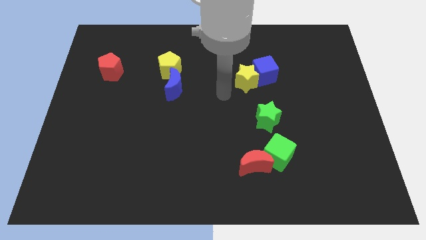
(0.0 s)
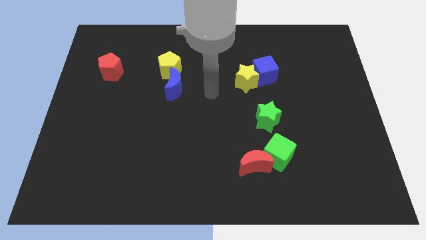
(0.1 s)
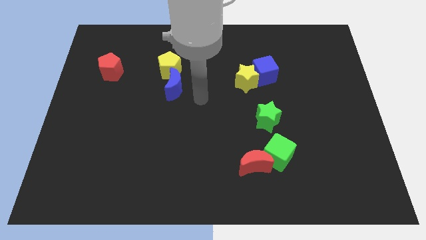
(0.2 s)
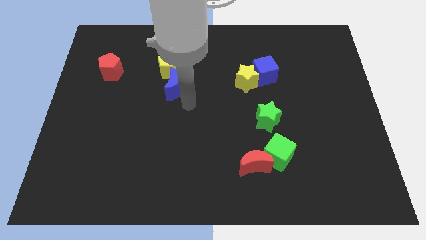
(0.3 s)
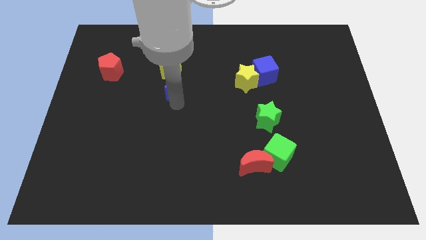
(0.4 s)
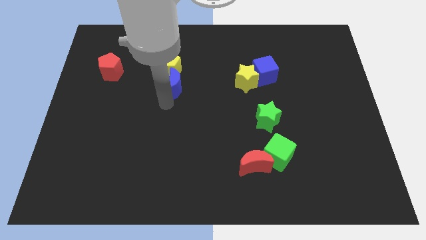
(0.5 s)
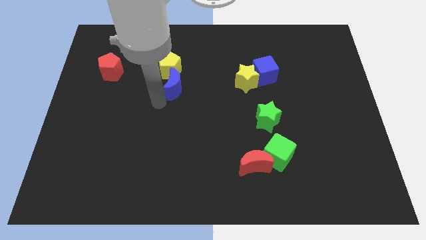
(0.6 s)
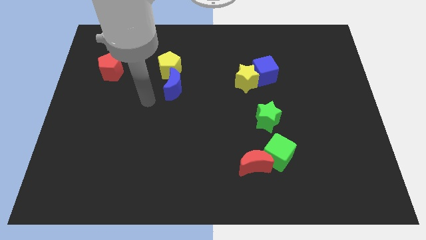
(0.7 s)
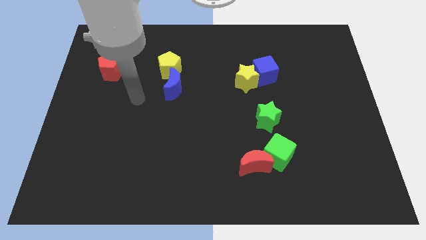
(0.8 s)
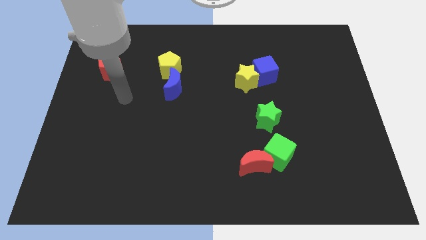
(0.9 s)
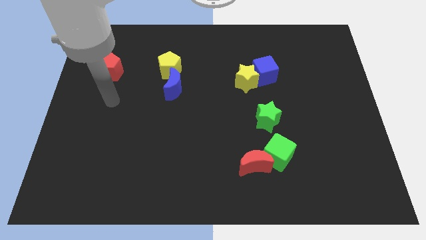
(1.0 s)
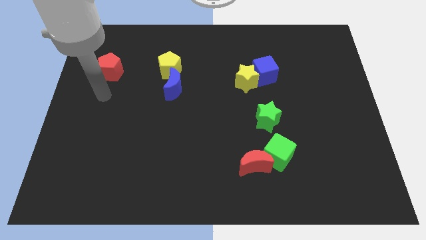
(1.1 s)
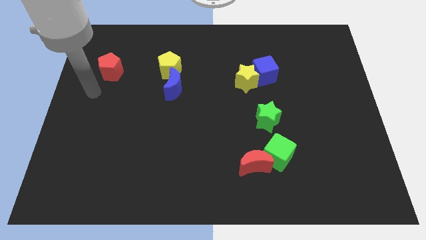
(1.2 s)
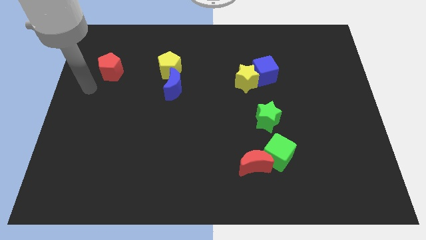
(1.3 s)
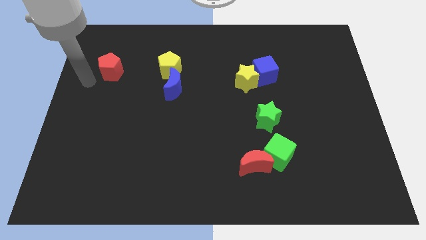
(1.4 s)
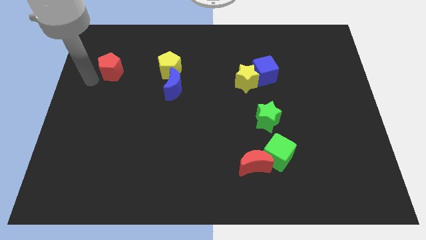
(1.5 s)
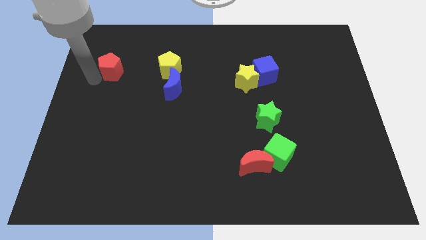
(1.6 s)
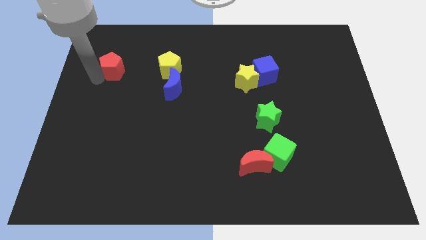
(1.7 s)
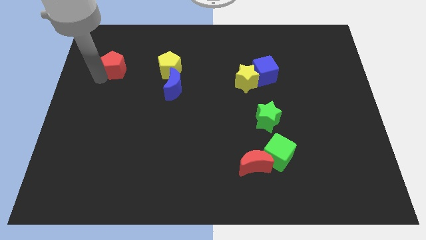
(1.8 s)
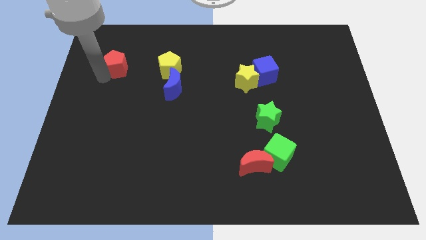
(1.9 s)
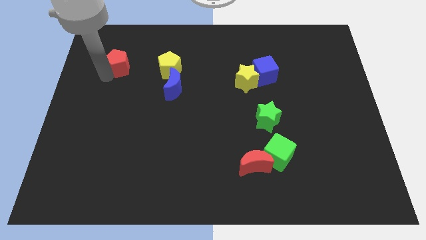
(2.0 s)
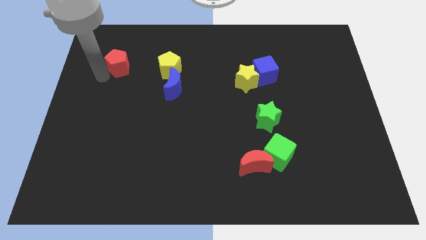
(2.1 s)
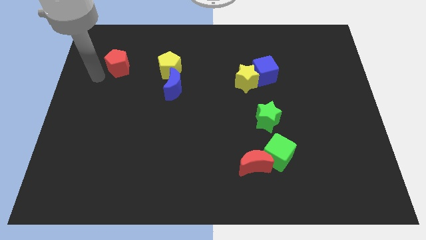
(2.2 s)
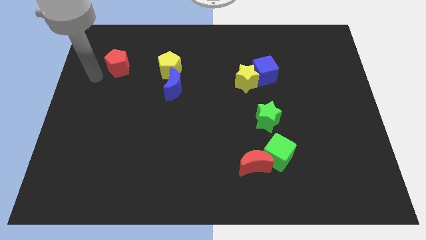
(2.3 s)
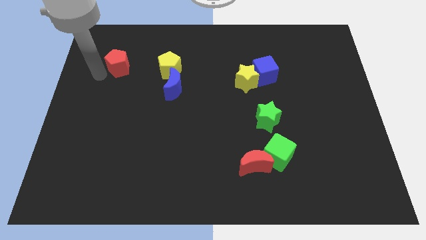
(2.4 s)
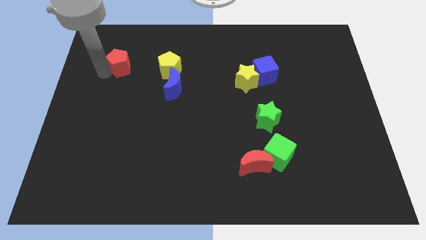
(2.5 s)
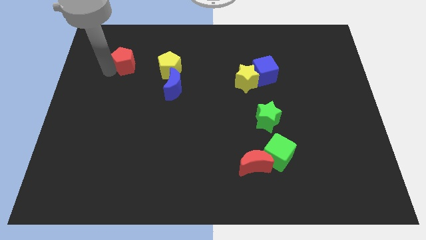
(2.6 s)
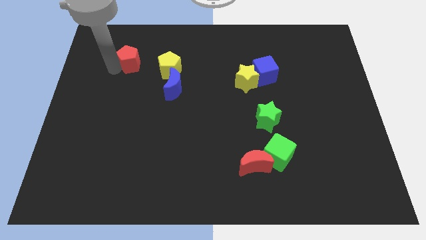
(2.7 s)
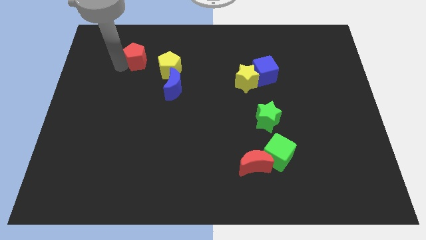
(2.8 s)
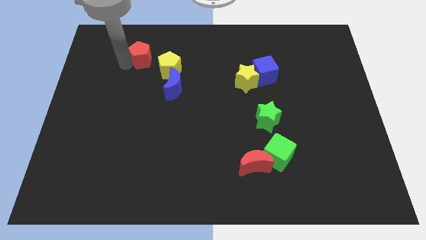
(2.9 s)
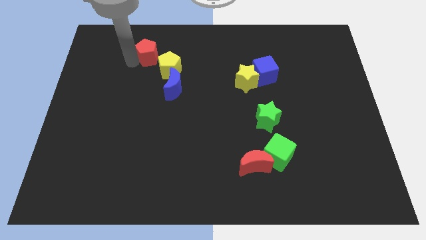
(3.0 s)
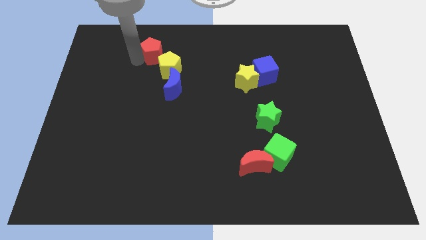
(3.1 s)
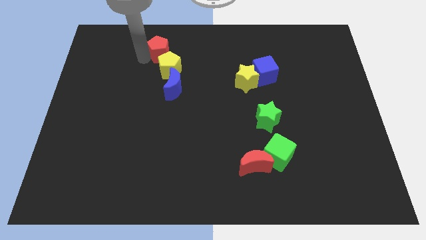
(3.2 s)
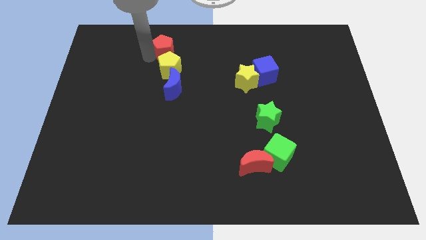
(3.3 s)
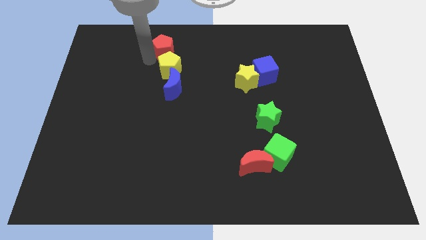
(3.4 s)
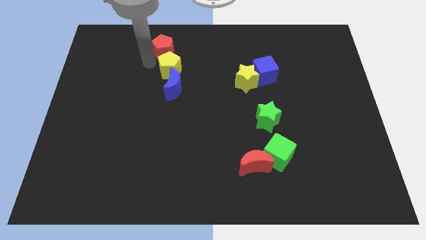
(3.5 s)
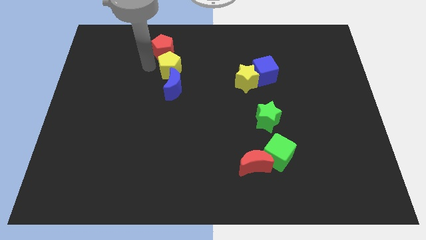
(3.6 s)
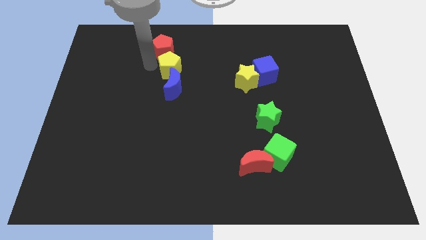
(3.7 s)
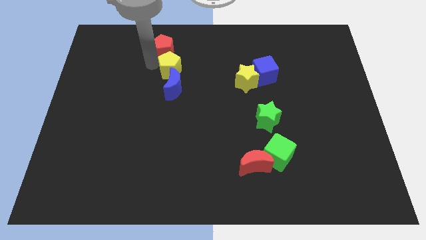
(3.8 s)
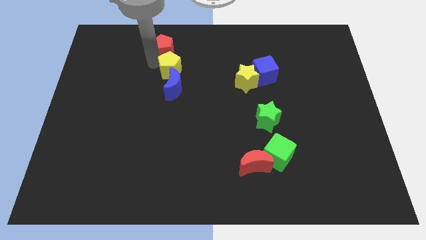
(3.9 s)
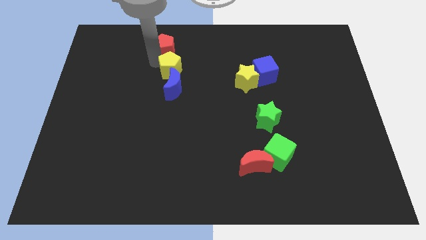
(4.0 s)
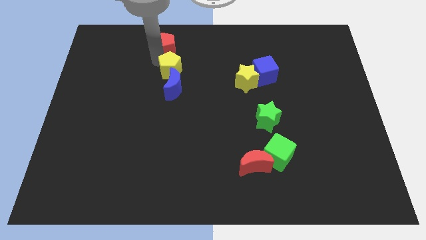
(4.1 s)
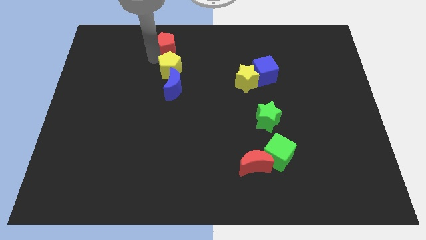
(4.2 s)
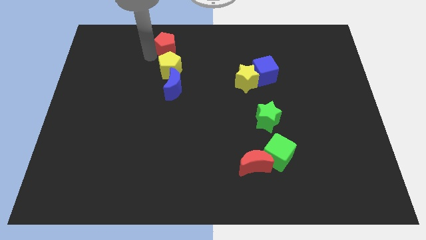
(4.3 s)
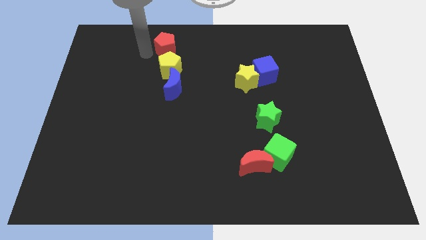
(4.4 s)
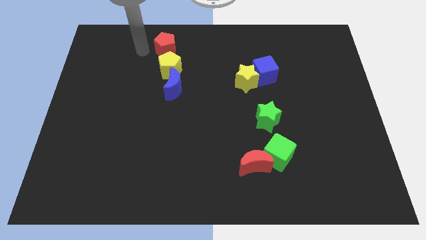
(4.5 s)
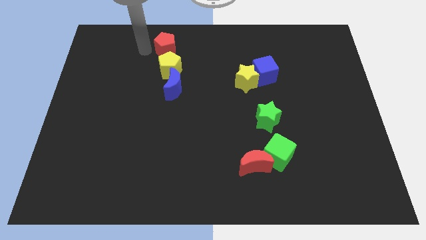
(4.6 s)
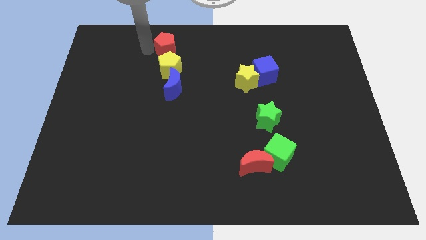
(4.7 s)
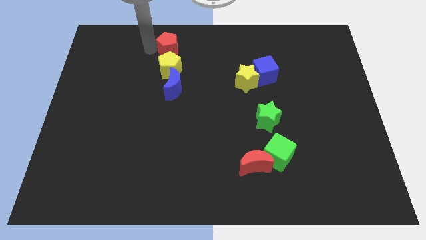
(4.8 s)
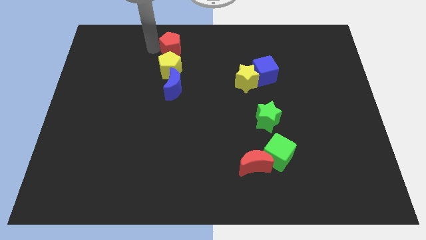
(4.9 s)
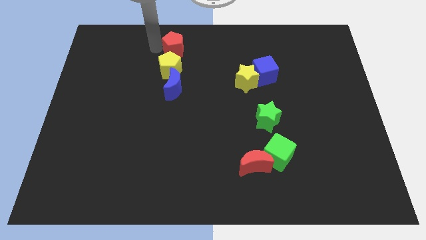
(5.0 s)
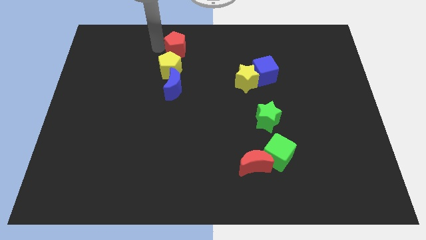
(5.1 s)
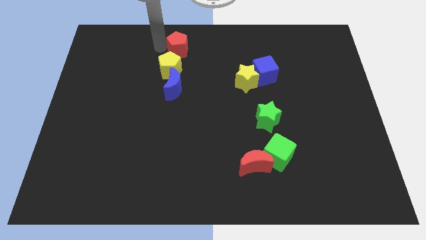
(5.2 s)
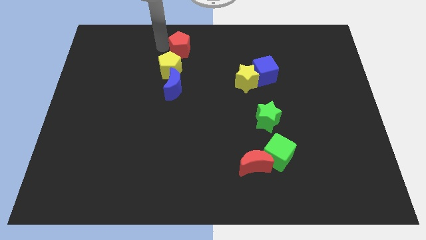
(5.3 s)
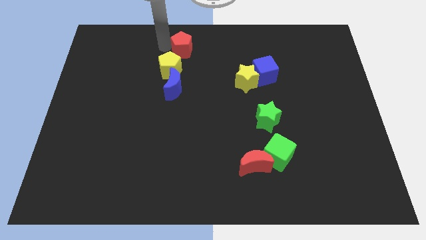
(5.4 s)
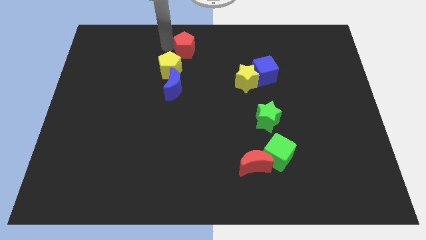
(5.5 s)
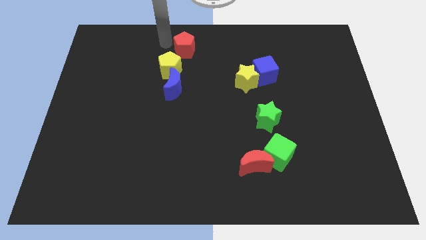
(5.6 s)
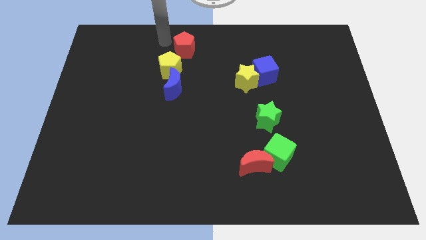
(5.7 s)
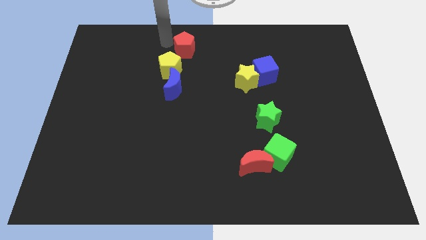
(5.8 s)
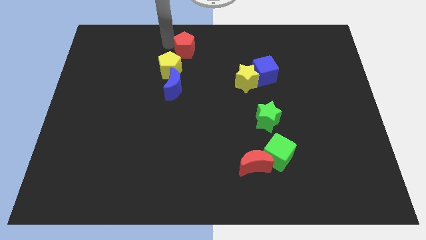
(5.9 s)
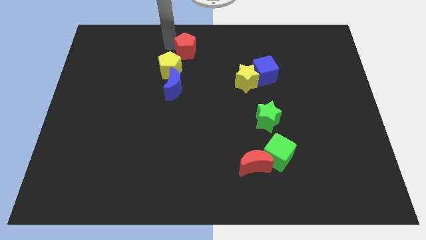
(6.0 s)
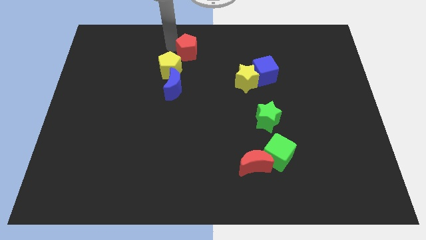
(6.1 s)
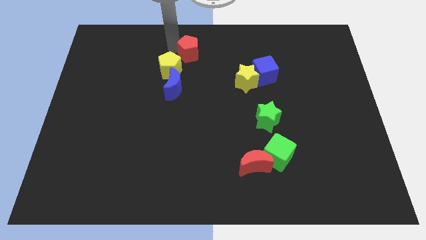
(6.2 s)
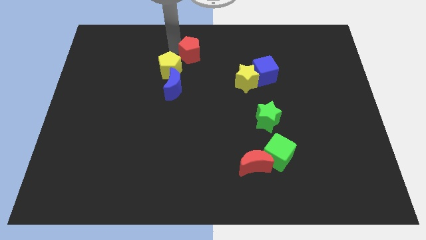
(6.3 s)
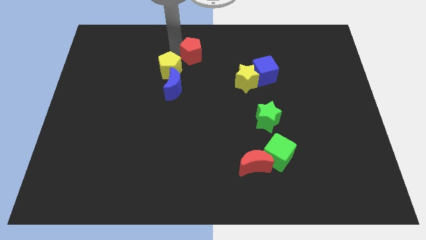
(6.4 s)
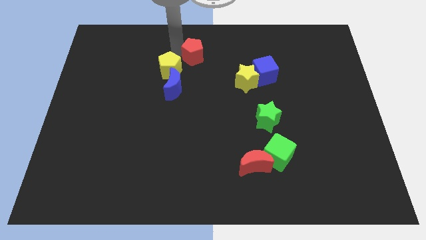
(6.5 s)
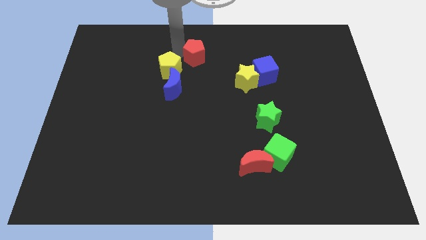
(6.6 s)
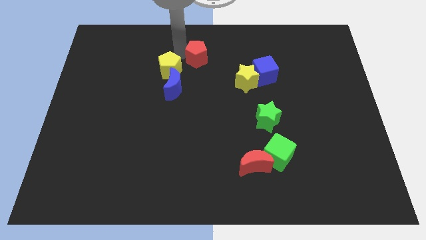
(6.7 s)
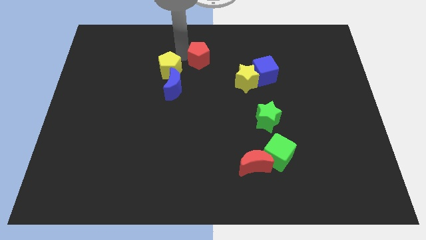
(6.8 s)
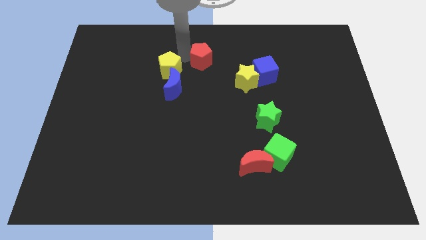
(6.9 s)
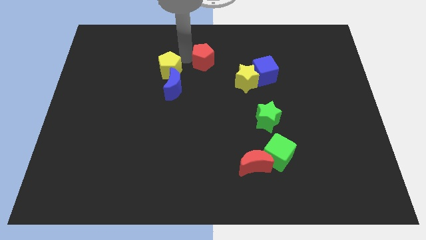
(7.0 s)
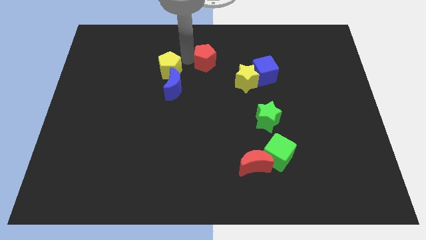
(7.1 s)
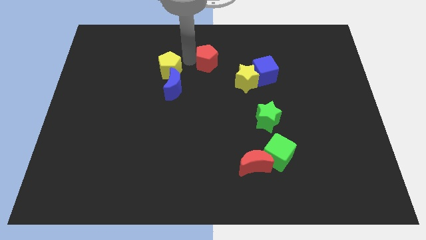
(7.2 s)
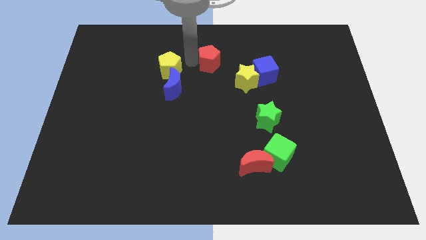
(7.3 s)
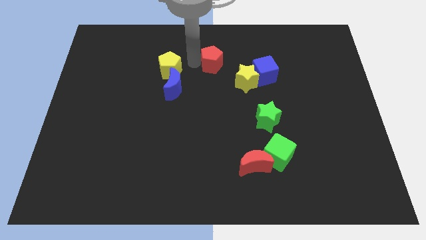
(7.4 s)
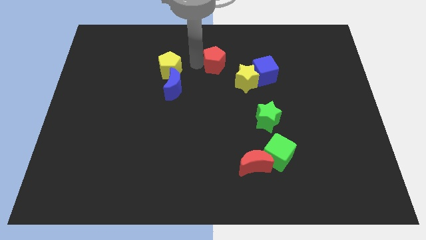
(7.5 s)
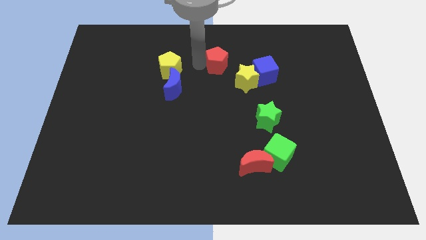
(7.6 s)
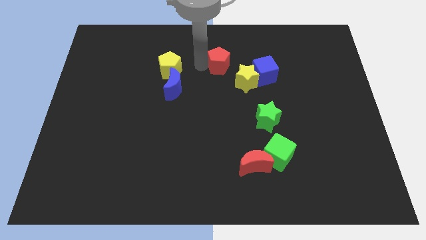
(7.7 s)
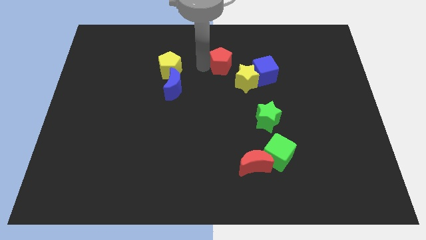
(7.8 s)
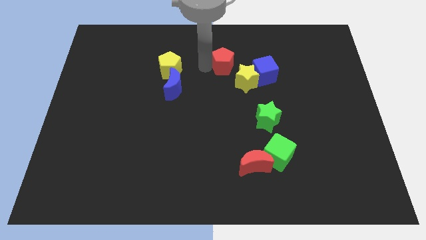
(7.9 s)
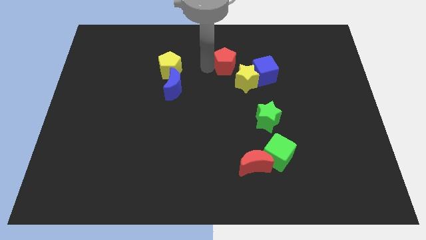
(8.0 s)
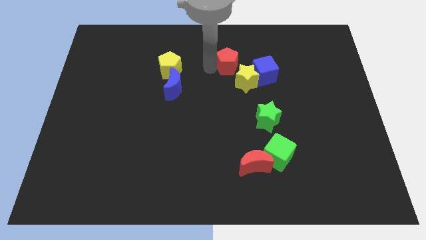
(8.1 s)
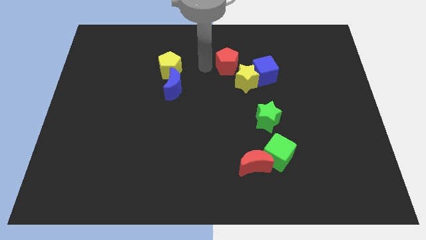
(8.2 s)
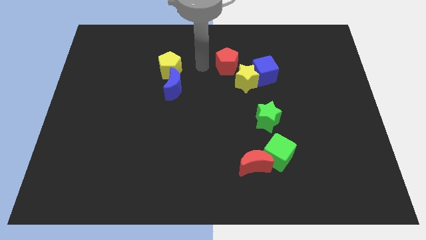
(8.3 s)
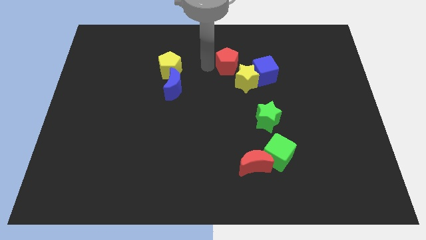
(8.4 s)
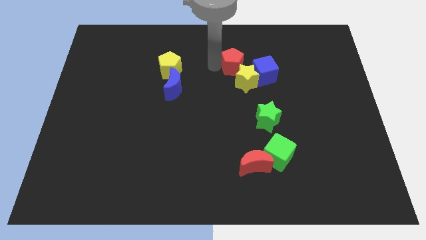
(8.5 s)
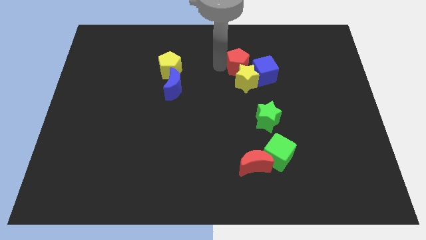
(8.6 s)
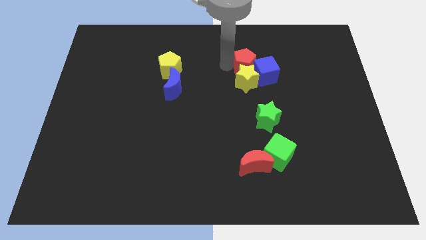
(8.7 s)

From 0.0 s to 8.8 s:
move the red pentagon next to the blue cube
